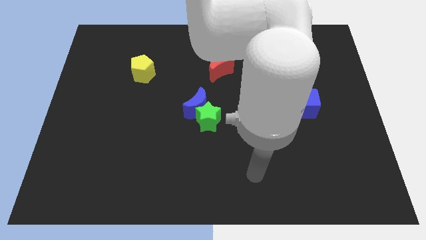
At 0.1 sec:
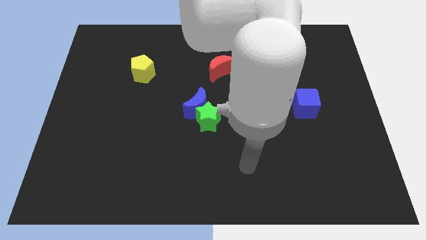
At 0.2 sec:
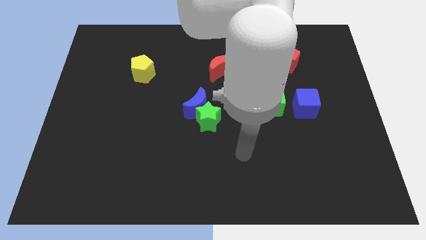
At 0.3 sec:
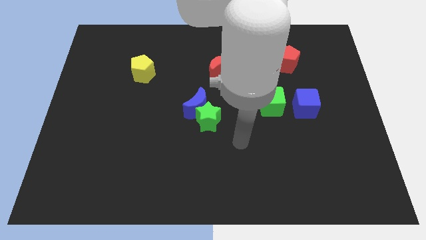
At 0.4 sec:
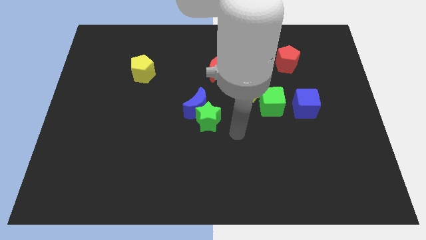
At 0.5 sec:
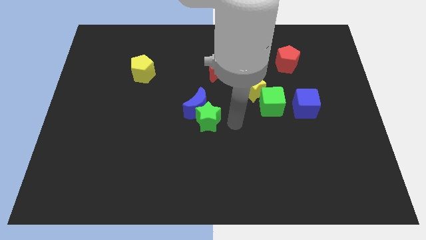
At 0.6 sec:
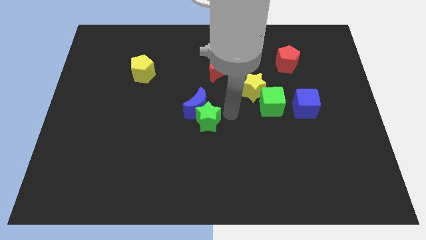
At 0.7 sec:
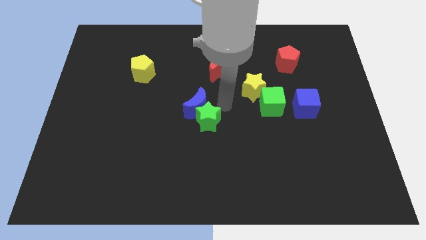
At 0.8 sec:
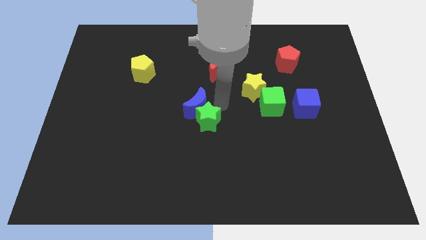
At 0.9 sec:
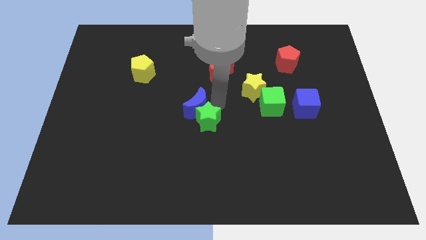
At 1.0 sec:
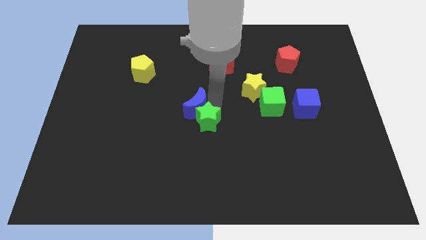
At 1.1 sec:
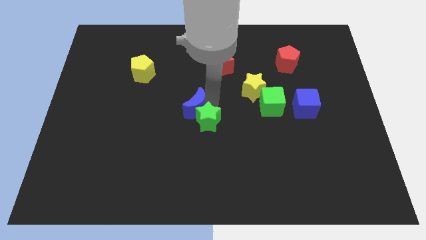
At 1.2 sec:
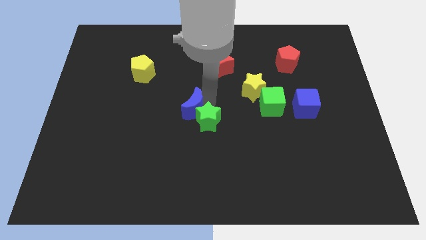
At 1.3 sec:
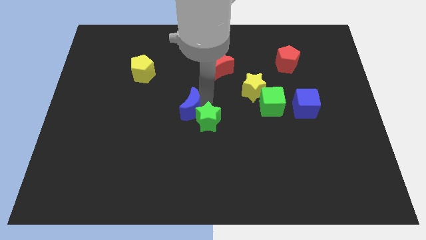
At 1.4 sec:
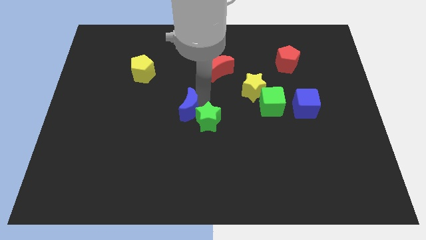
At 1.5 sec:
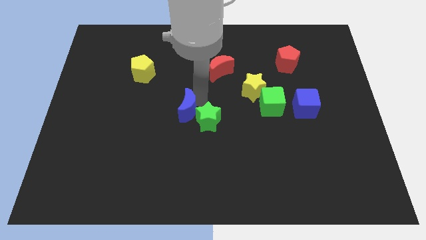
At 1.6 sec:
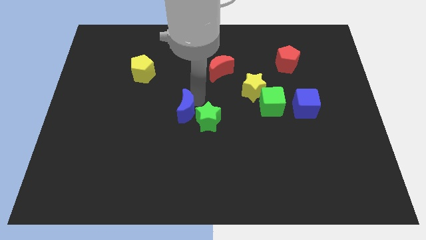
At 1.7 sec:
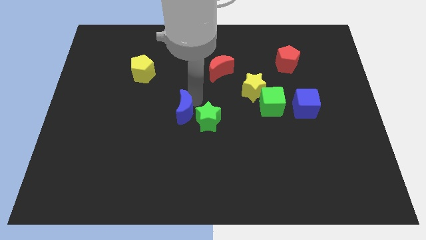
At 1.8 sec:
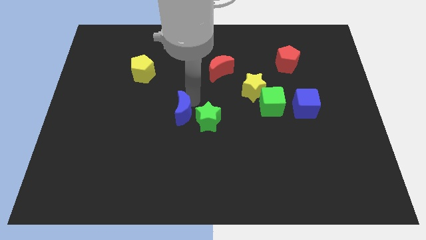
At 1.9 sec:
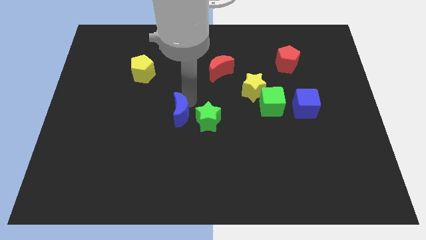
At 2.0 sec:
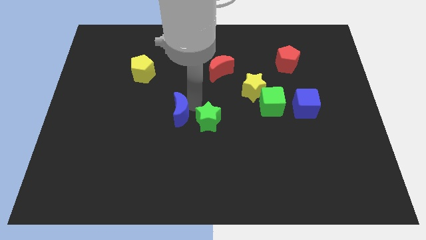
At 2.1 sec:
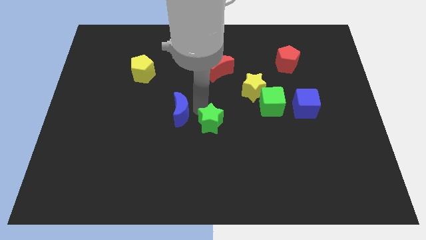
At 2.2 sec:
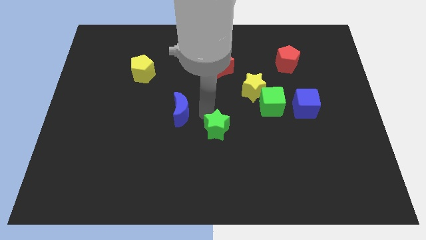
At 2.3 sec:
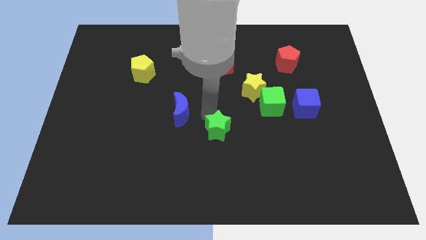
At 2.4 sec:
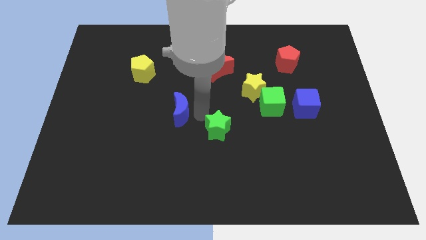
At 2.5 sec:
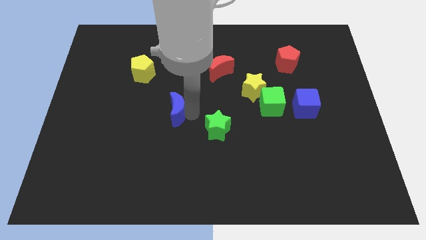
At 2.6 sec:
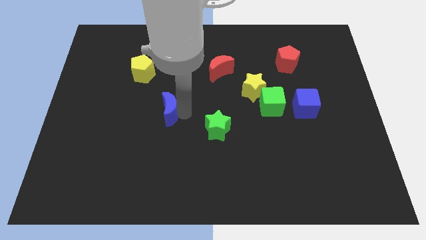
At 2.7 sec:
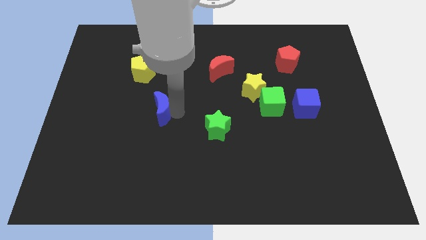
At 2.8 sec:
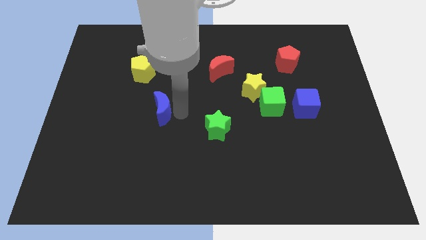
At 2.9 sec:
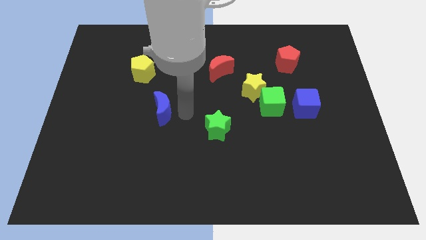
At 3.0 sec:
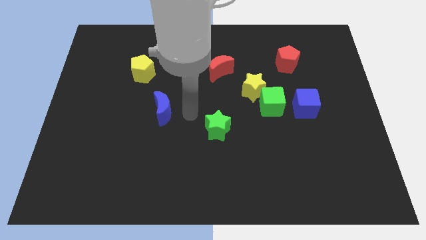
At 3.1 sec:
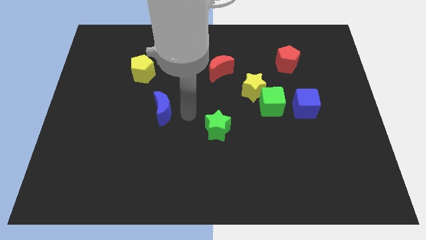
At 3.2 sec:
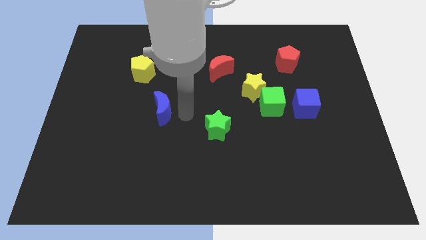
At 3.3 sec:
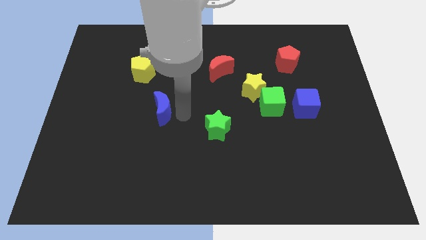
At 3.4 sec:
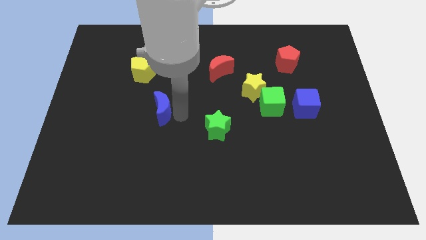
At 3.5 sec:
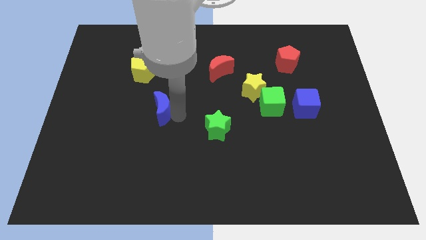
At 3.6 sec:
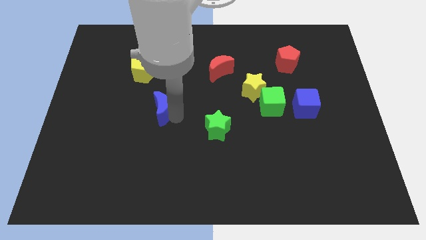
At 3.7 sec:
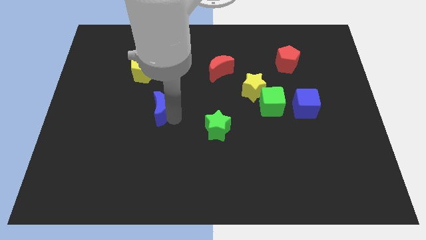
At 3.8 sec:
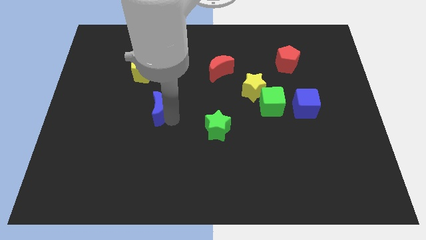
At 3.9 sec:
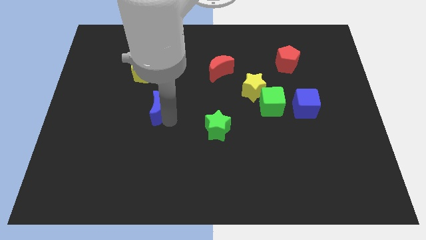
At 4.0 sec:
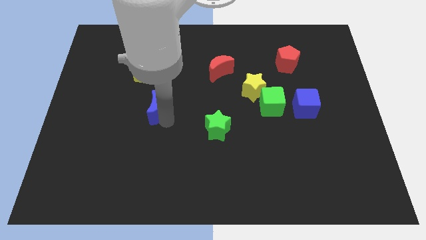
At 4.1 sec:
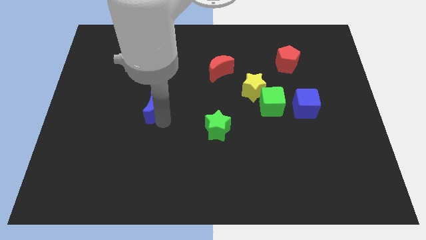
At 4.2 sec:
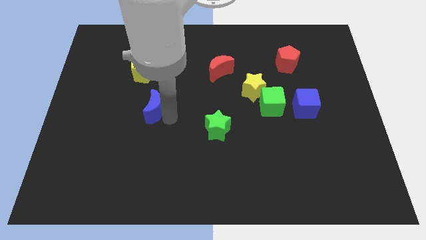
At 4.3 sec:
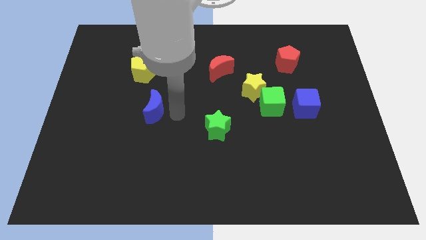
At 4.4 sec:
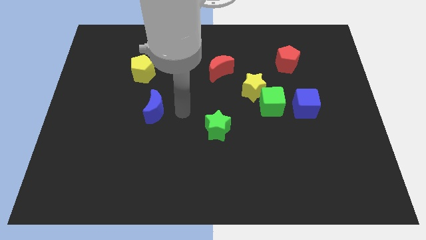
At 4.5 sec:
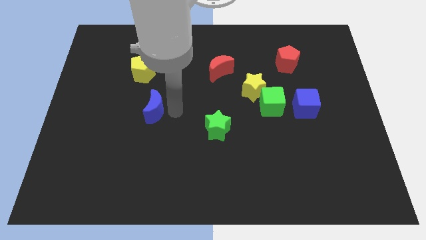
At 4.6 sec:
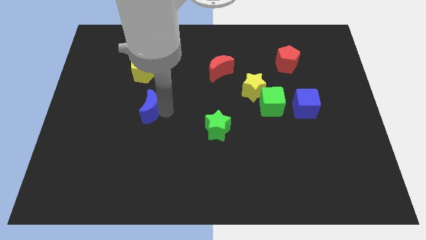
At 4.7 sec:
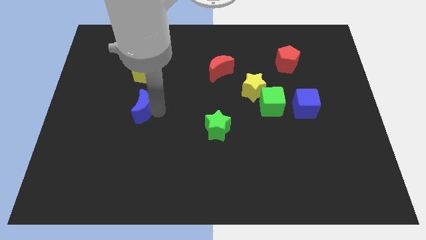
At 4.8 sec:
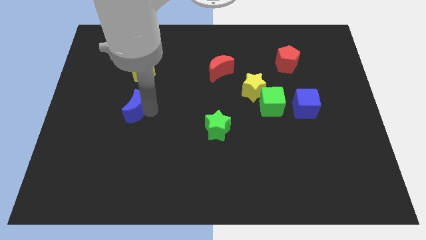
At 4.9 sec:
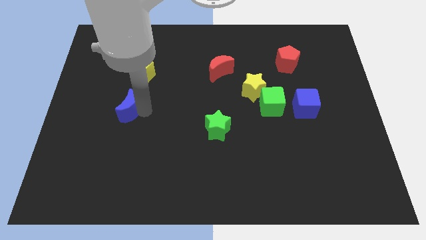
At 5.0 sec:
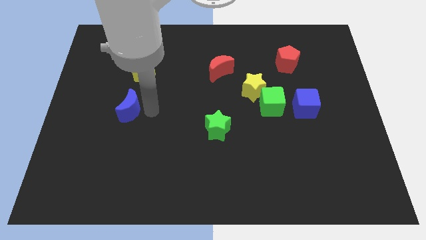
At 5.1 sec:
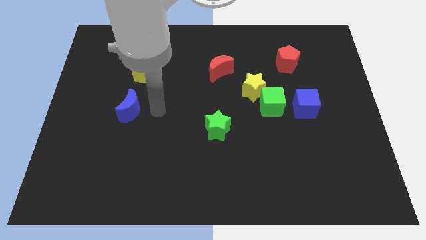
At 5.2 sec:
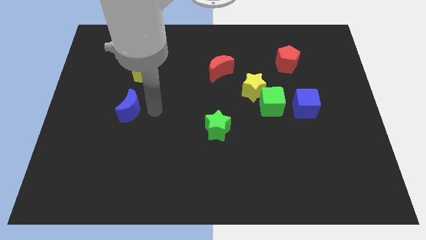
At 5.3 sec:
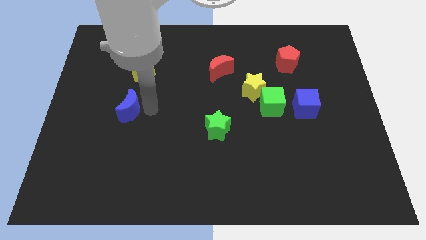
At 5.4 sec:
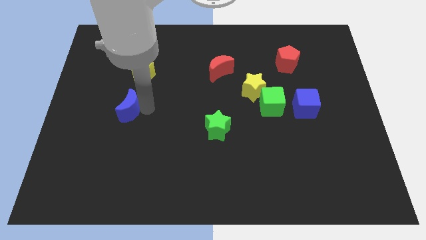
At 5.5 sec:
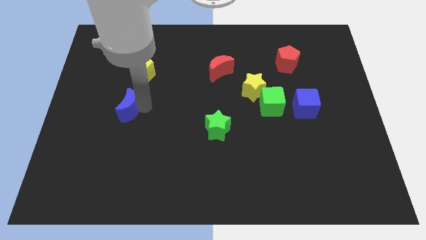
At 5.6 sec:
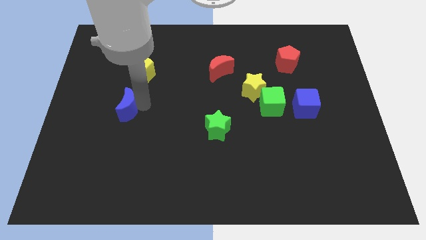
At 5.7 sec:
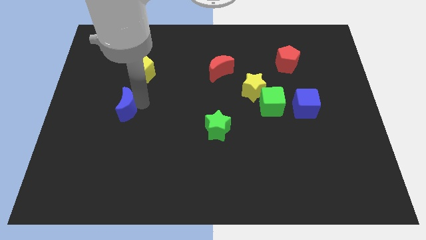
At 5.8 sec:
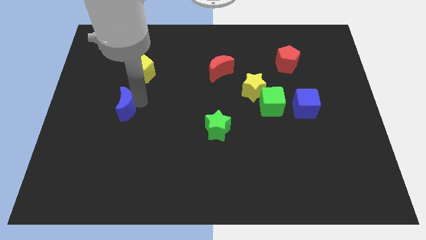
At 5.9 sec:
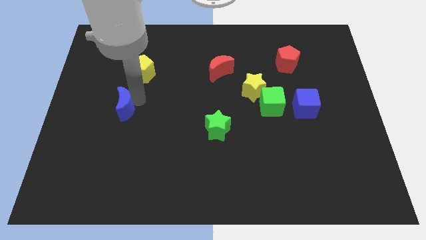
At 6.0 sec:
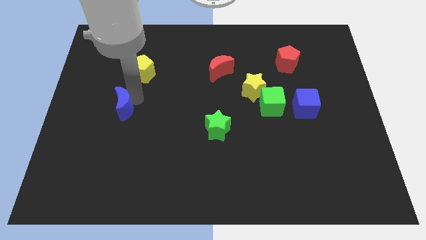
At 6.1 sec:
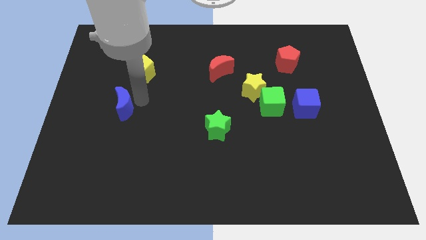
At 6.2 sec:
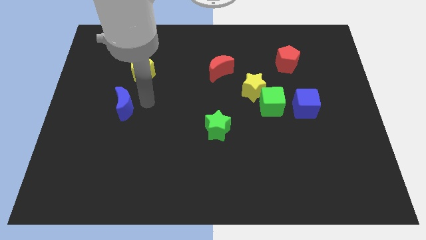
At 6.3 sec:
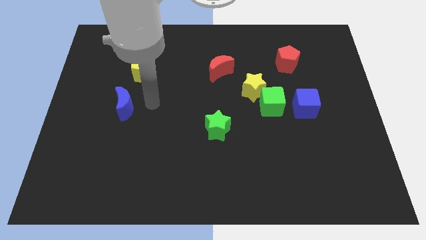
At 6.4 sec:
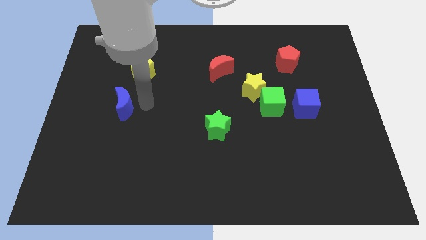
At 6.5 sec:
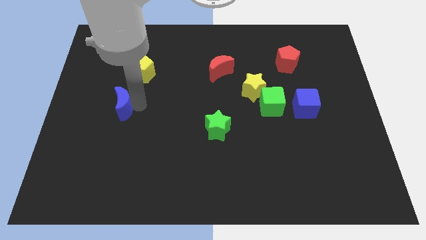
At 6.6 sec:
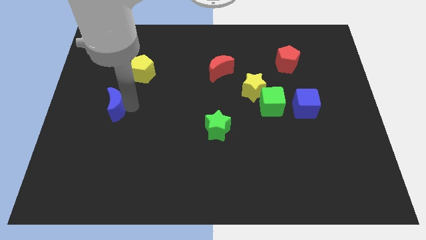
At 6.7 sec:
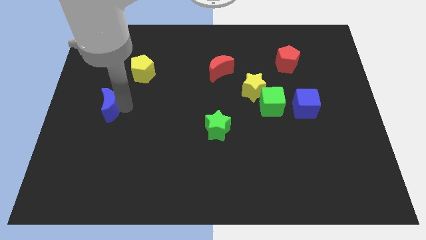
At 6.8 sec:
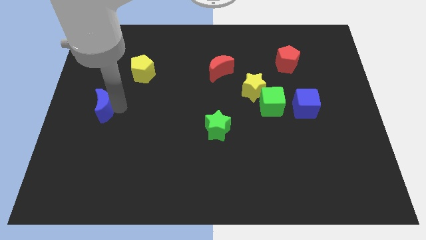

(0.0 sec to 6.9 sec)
slide the blue moon to the center left
